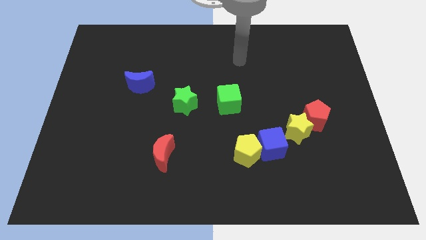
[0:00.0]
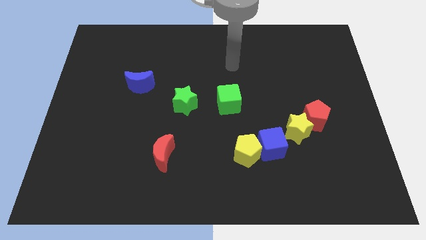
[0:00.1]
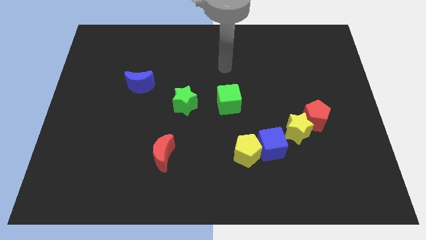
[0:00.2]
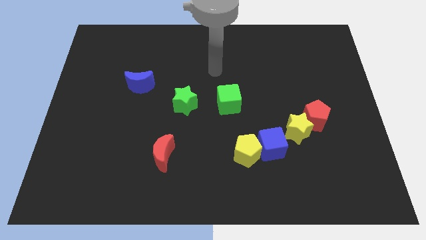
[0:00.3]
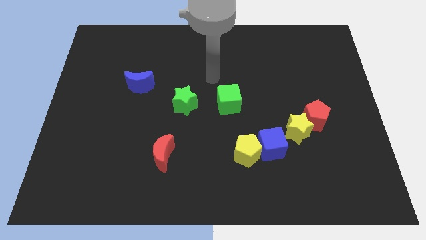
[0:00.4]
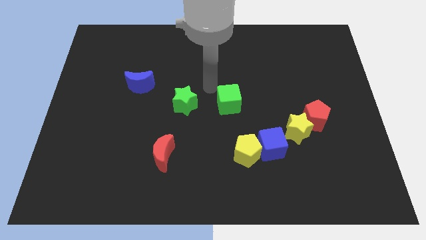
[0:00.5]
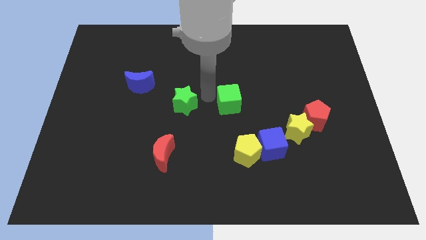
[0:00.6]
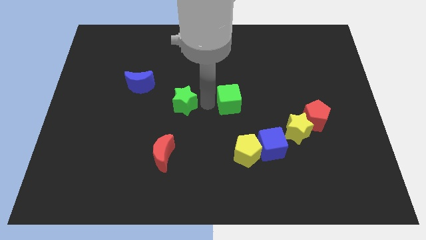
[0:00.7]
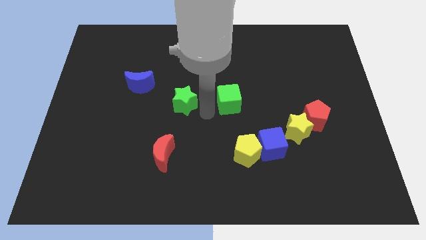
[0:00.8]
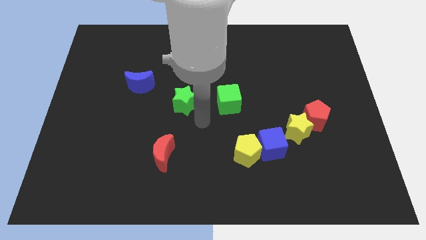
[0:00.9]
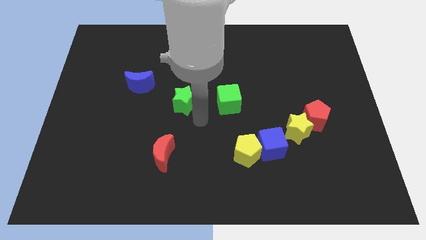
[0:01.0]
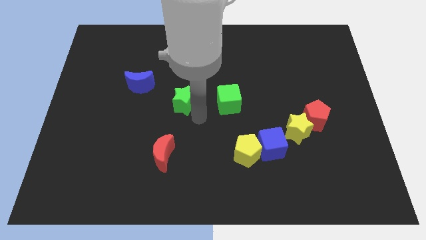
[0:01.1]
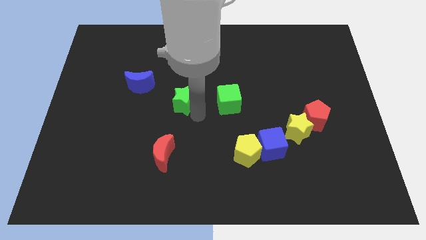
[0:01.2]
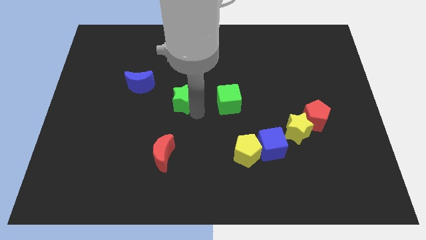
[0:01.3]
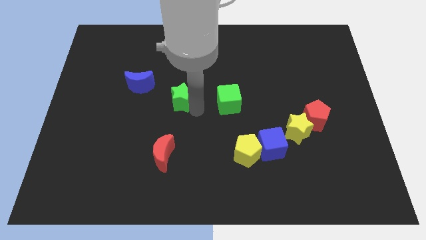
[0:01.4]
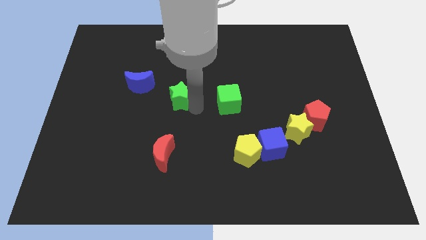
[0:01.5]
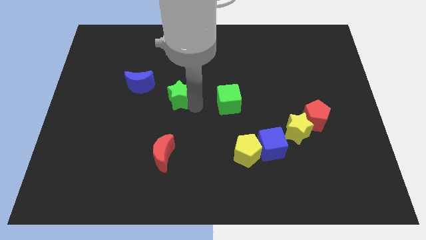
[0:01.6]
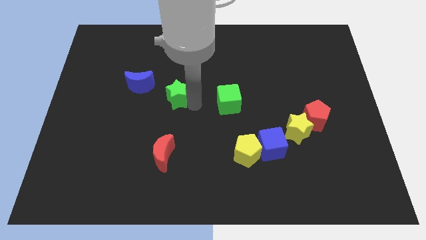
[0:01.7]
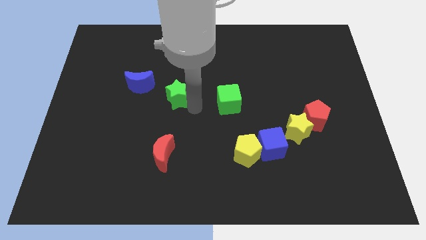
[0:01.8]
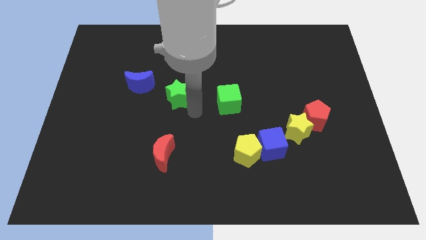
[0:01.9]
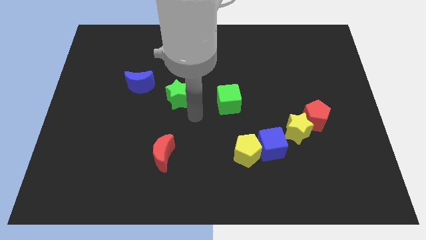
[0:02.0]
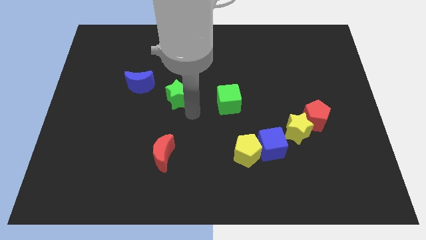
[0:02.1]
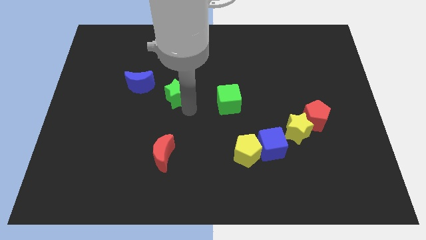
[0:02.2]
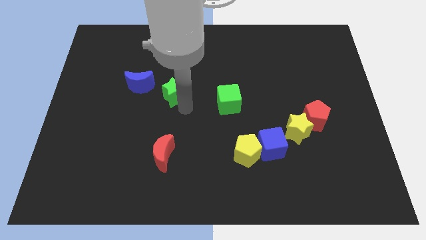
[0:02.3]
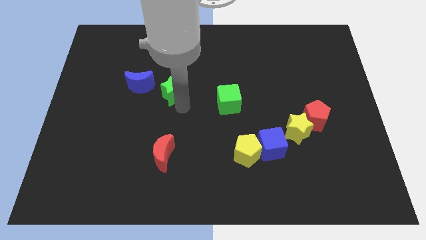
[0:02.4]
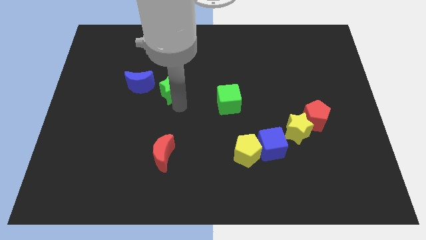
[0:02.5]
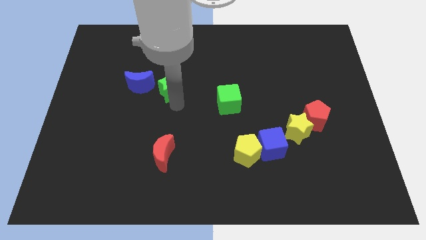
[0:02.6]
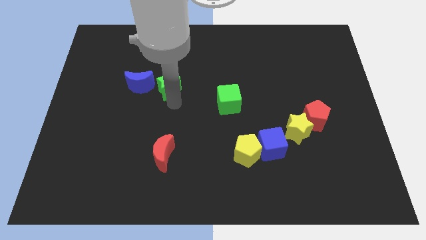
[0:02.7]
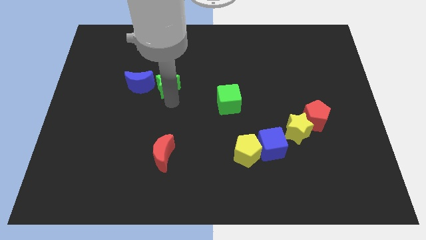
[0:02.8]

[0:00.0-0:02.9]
slightly push the green star diagonally upwards and left

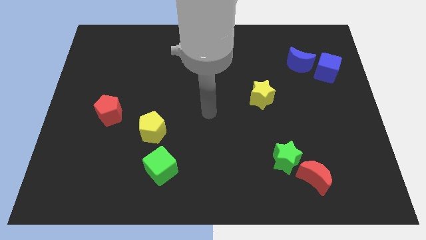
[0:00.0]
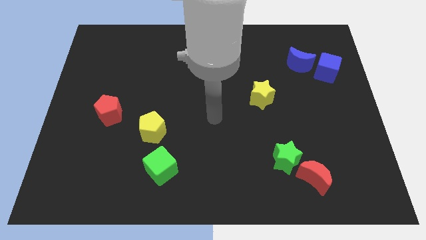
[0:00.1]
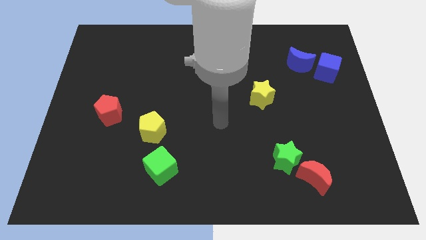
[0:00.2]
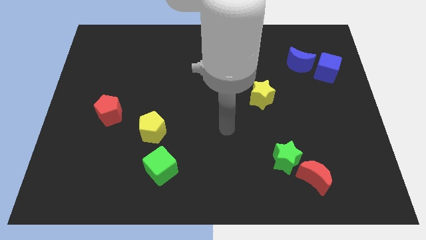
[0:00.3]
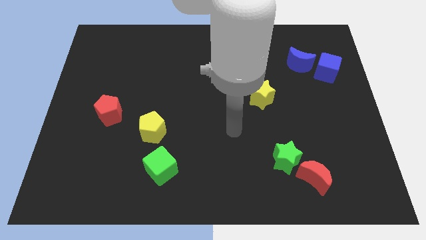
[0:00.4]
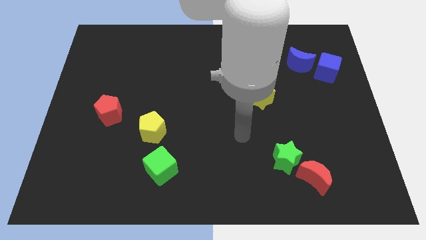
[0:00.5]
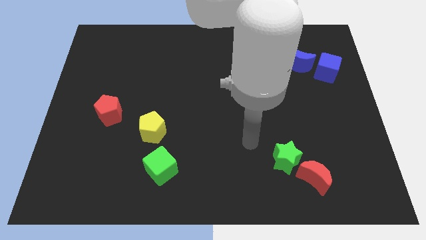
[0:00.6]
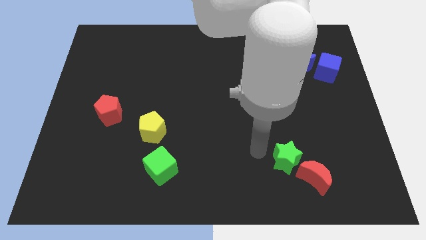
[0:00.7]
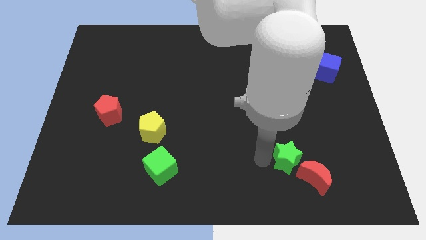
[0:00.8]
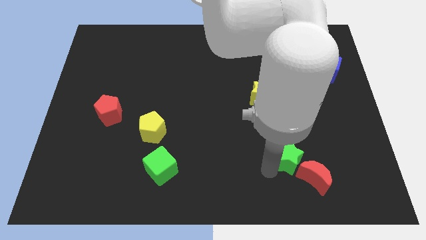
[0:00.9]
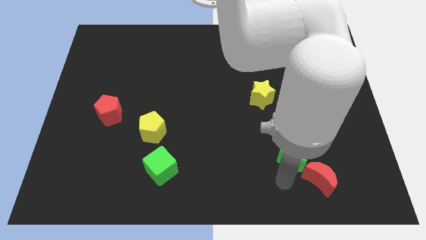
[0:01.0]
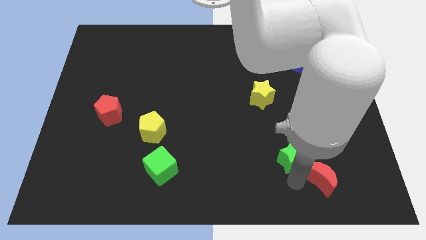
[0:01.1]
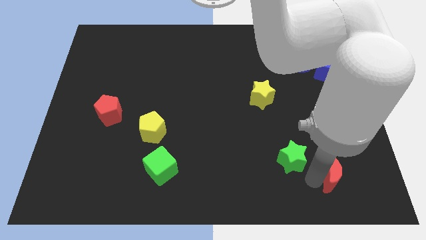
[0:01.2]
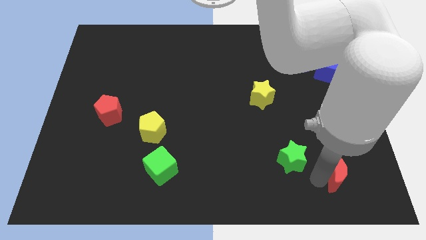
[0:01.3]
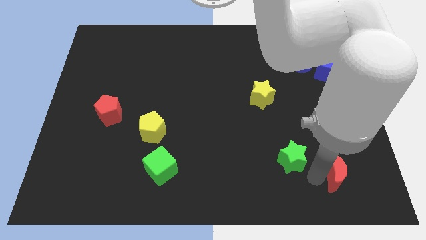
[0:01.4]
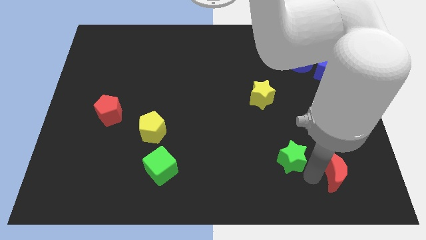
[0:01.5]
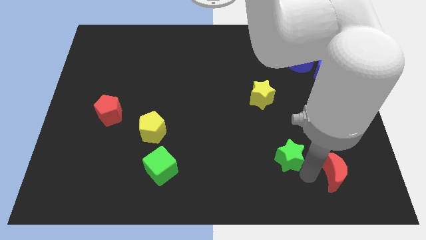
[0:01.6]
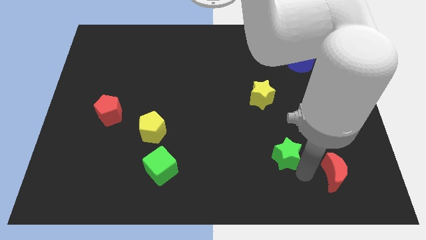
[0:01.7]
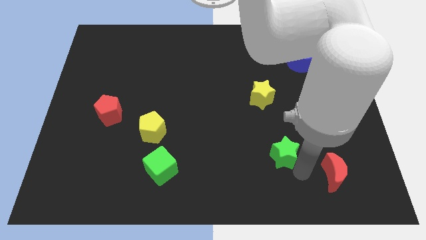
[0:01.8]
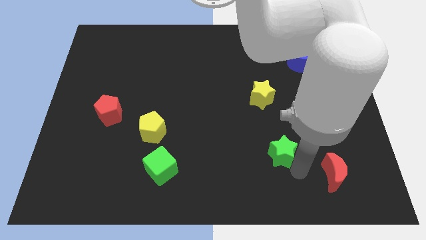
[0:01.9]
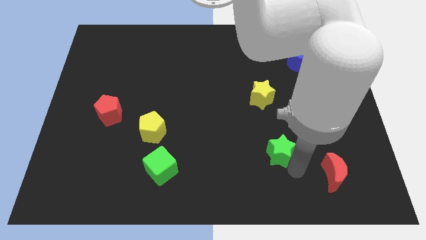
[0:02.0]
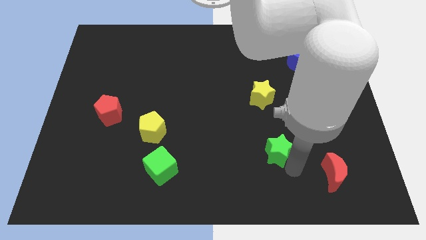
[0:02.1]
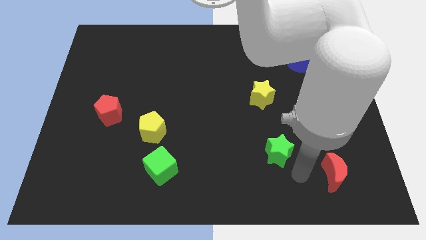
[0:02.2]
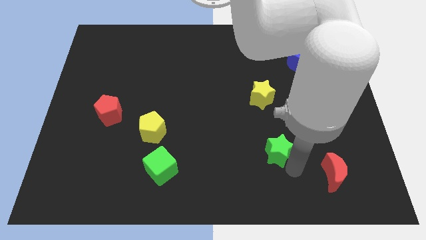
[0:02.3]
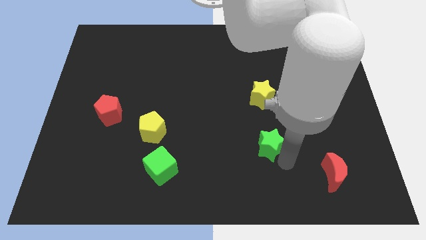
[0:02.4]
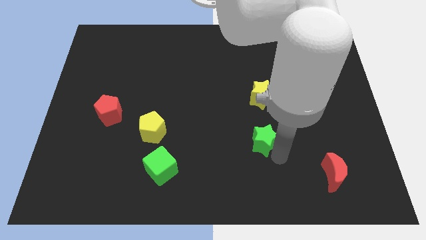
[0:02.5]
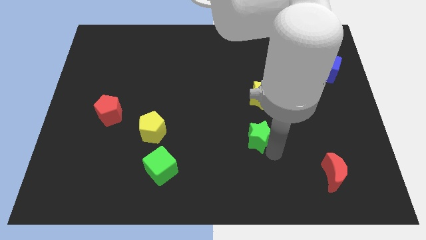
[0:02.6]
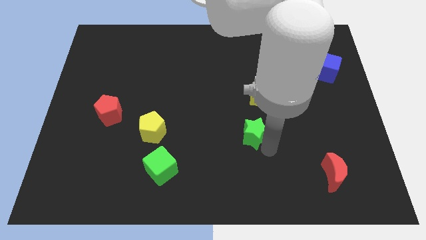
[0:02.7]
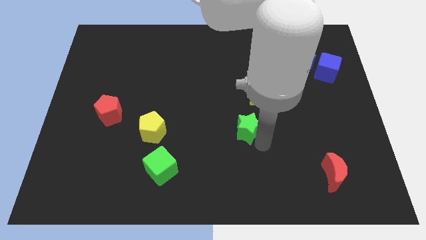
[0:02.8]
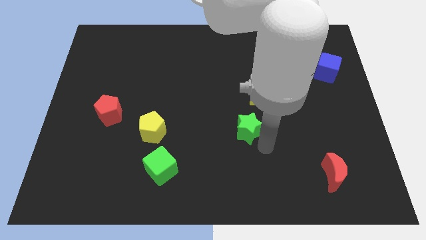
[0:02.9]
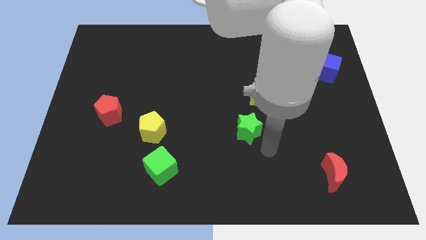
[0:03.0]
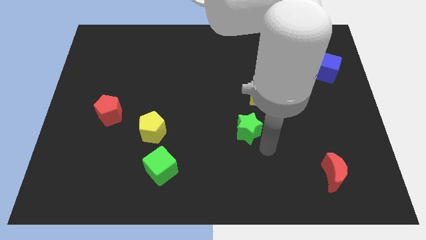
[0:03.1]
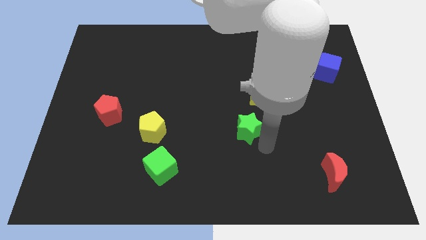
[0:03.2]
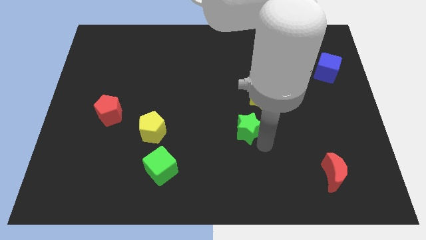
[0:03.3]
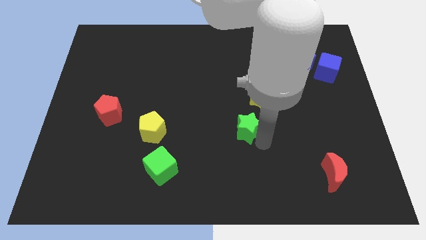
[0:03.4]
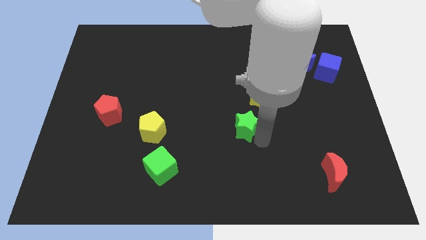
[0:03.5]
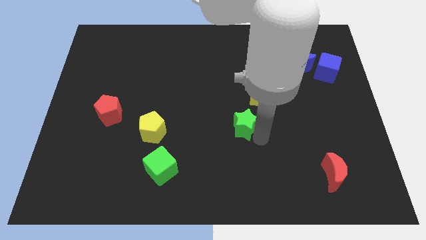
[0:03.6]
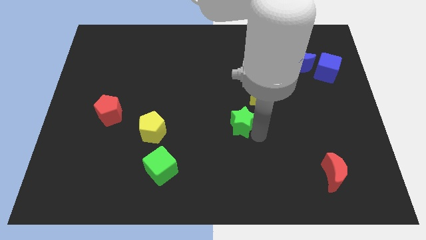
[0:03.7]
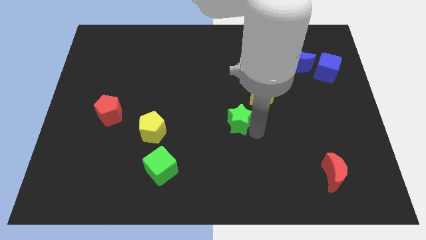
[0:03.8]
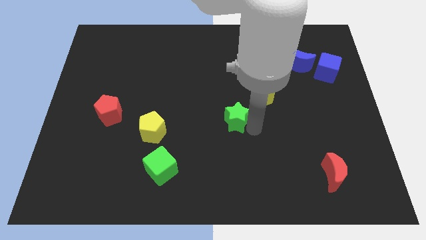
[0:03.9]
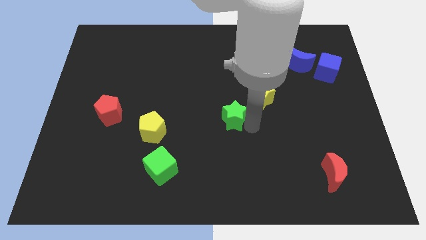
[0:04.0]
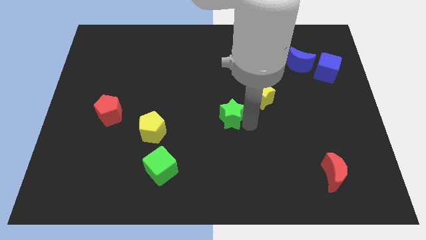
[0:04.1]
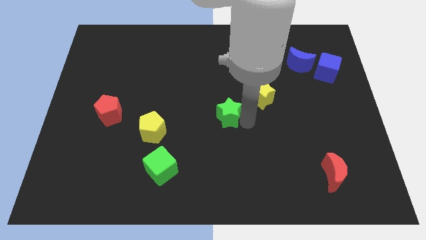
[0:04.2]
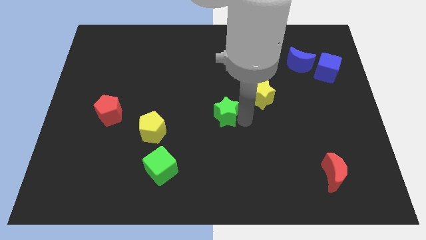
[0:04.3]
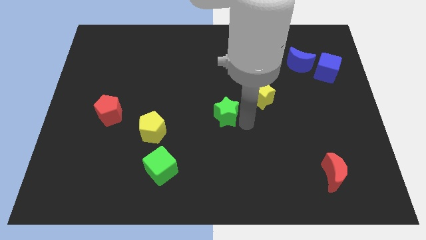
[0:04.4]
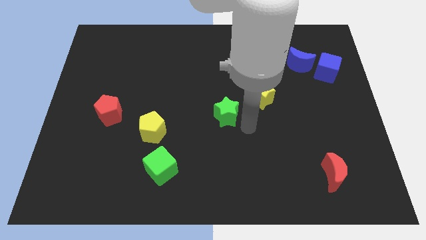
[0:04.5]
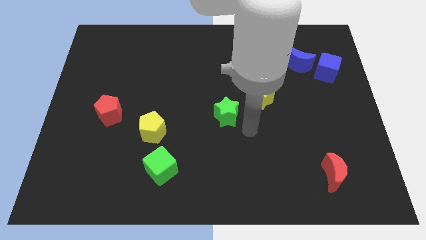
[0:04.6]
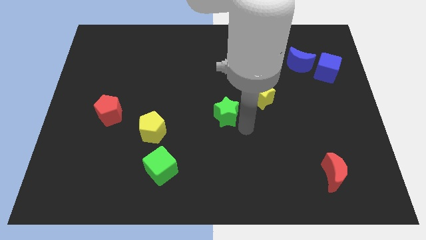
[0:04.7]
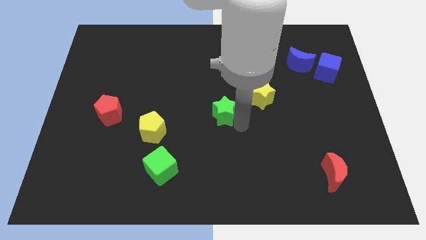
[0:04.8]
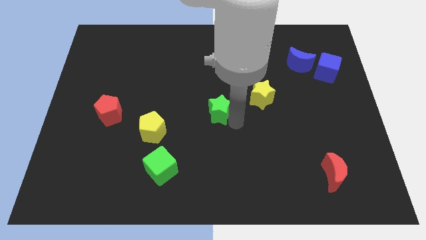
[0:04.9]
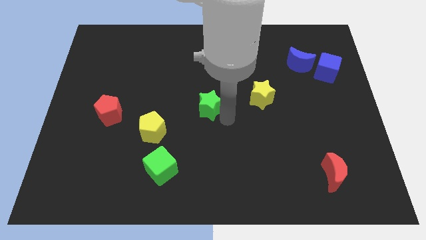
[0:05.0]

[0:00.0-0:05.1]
move the green star diagonally upwards and to the left
